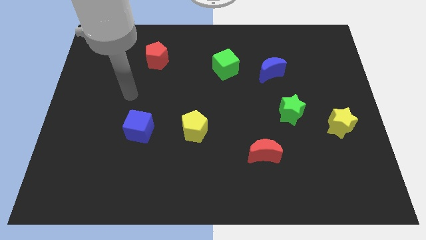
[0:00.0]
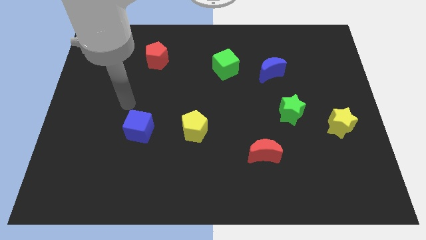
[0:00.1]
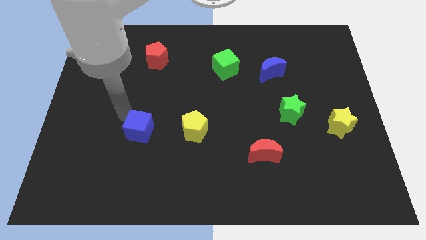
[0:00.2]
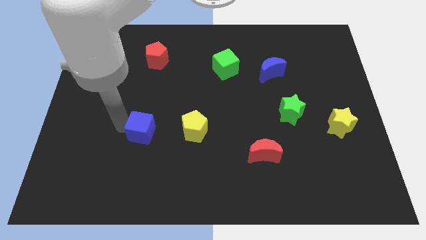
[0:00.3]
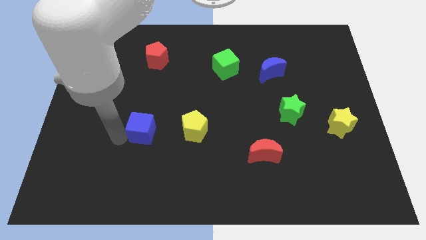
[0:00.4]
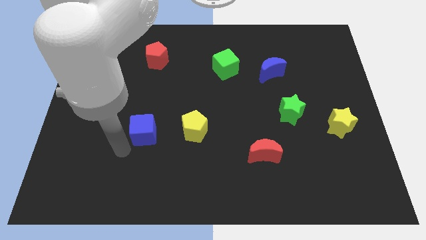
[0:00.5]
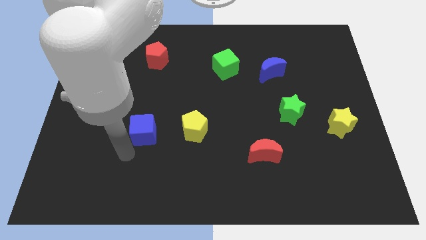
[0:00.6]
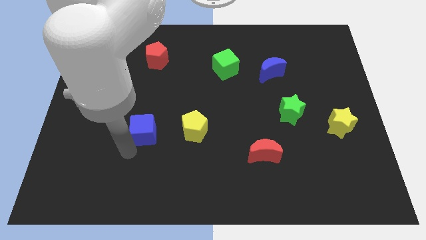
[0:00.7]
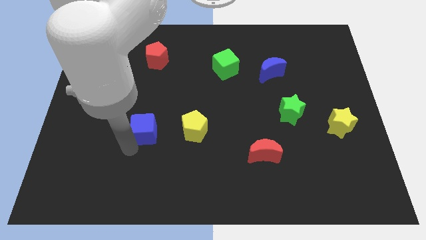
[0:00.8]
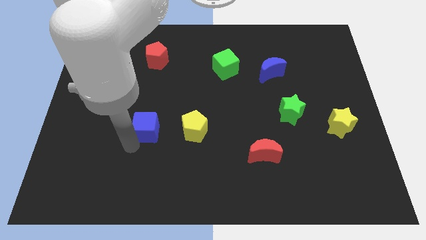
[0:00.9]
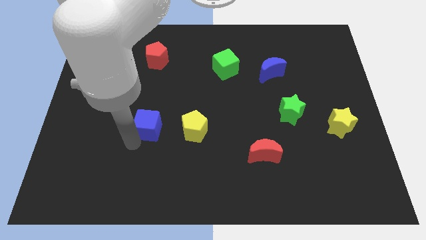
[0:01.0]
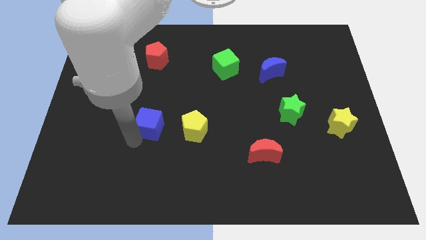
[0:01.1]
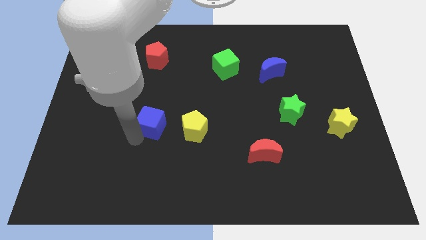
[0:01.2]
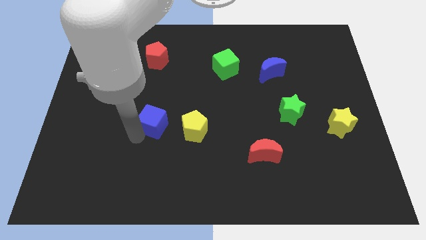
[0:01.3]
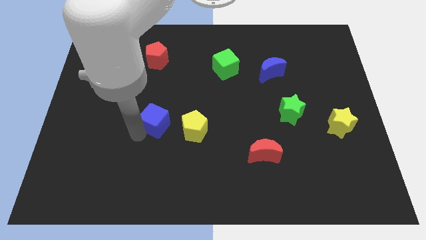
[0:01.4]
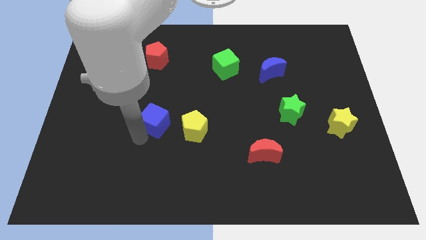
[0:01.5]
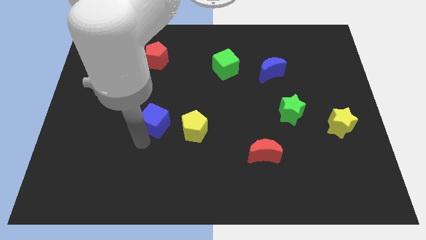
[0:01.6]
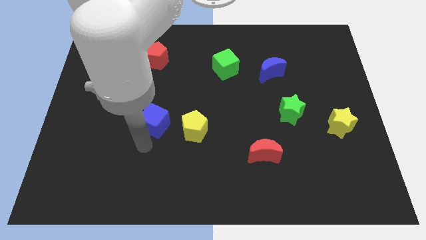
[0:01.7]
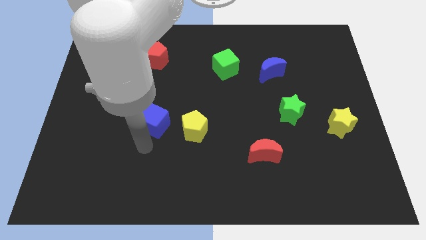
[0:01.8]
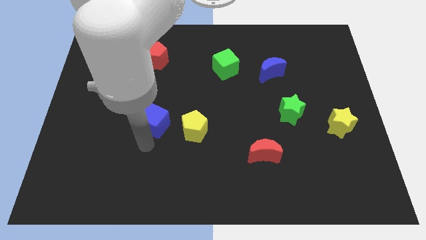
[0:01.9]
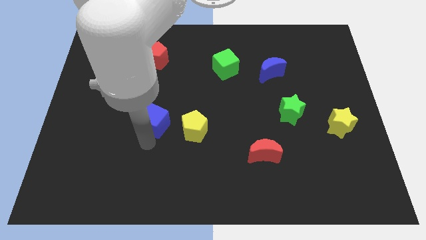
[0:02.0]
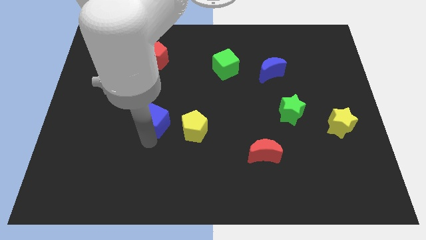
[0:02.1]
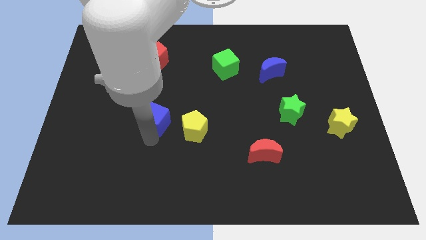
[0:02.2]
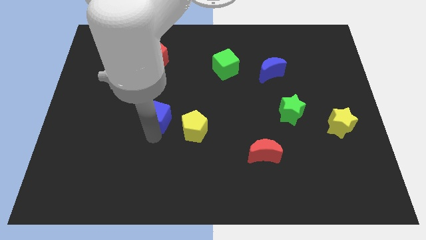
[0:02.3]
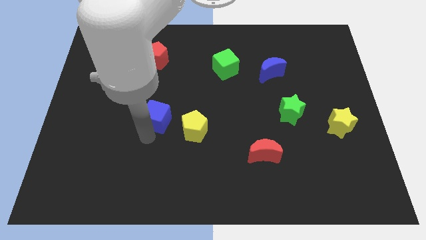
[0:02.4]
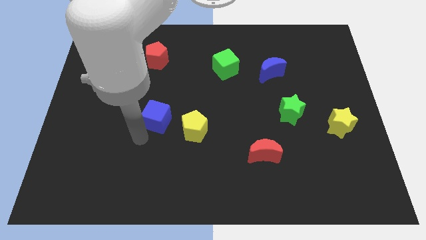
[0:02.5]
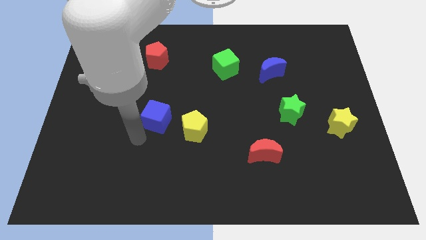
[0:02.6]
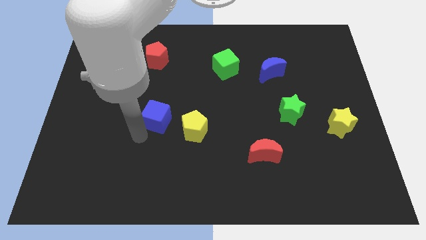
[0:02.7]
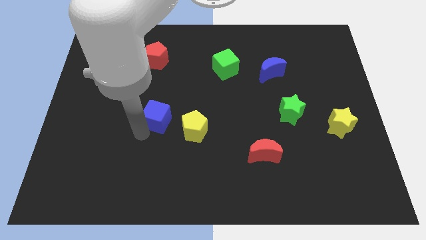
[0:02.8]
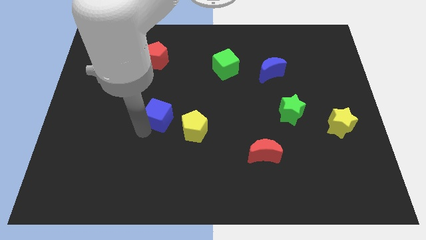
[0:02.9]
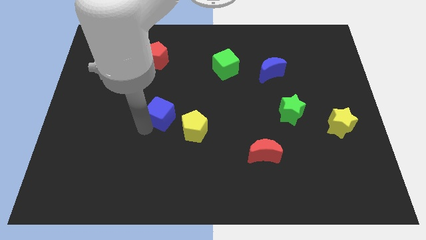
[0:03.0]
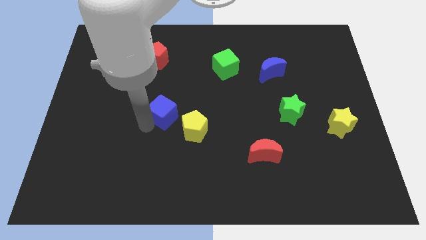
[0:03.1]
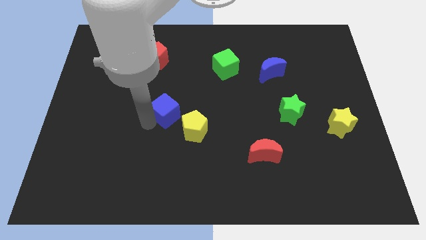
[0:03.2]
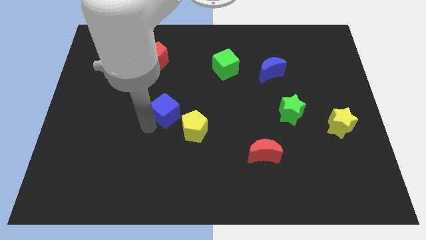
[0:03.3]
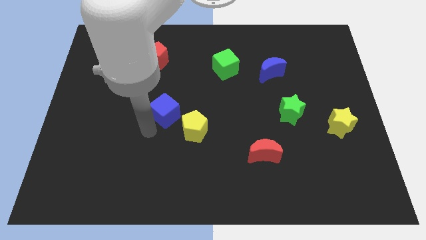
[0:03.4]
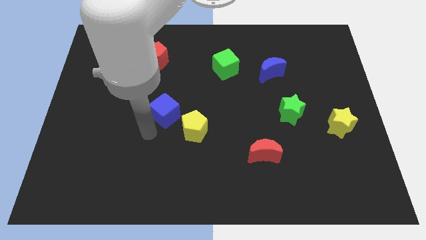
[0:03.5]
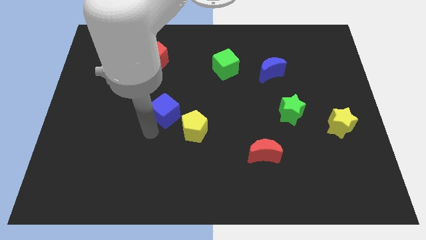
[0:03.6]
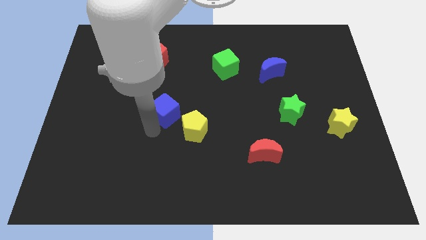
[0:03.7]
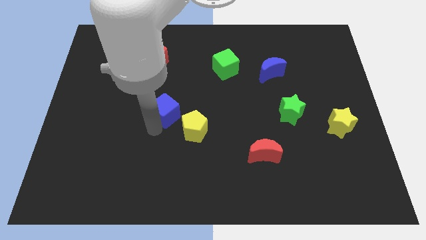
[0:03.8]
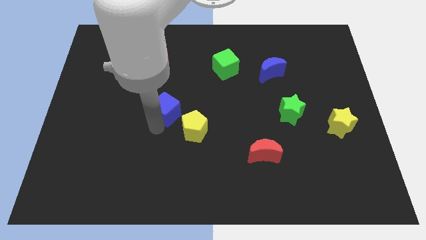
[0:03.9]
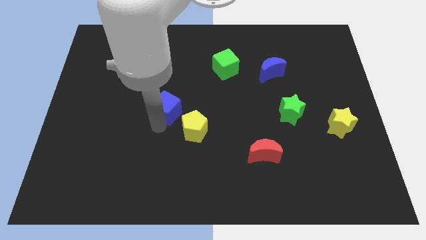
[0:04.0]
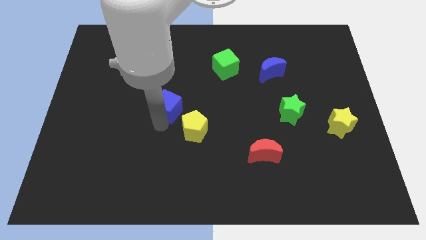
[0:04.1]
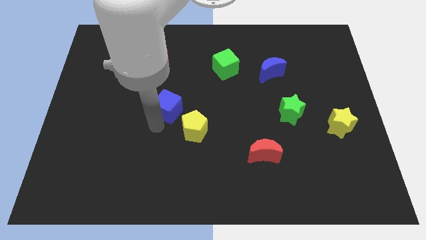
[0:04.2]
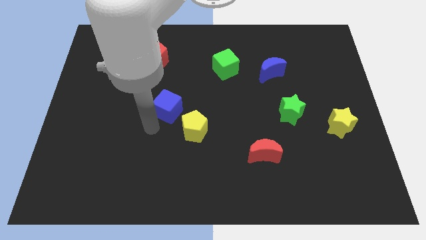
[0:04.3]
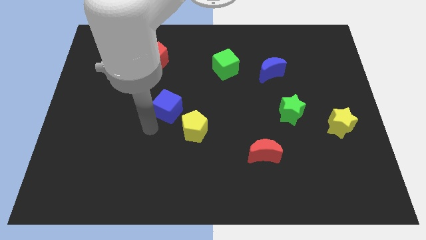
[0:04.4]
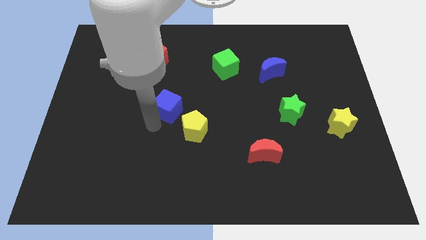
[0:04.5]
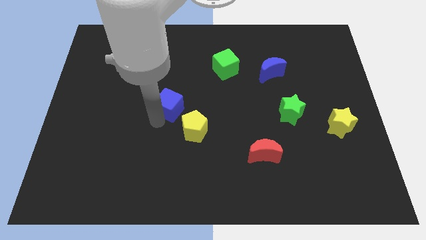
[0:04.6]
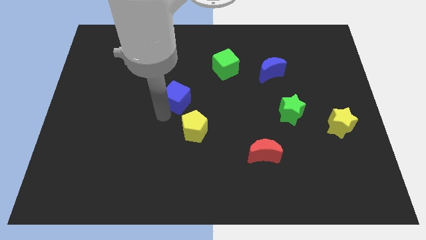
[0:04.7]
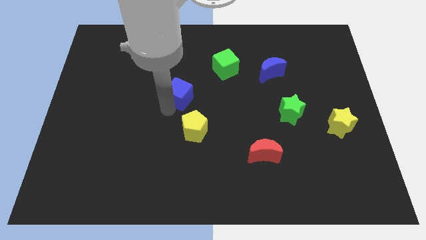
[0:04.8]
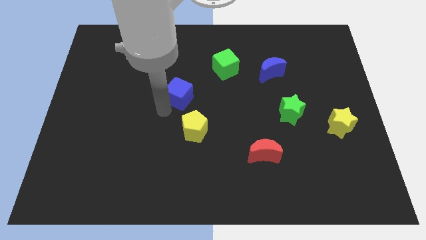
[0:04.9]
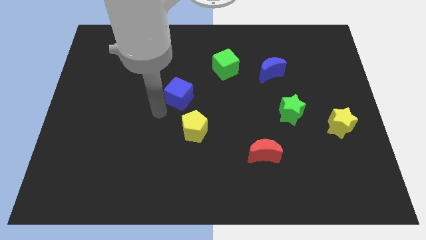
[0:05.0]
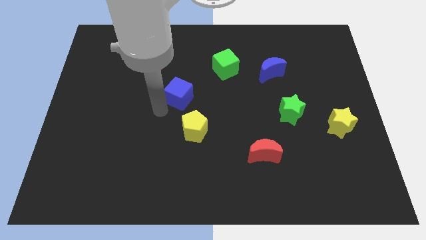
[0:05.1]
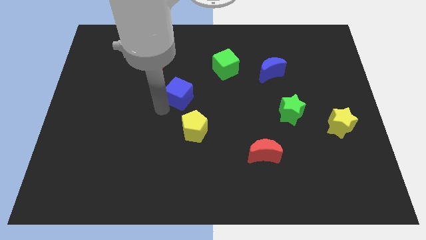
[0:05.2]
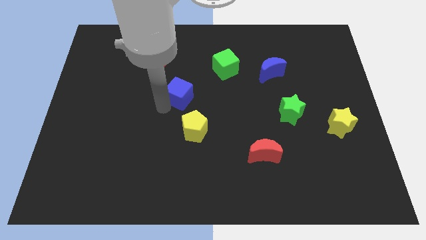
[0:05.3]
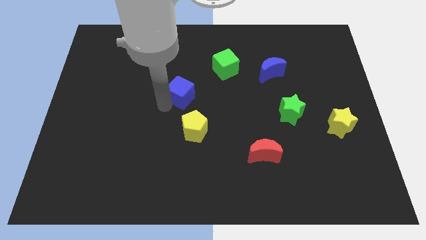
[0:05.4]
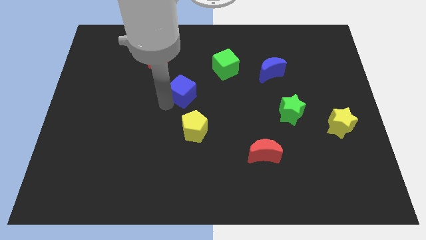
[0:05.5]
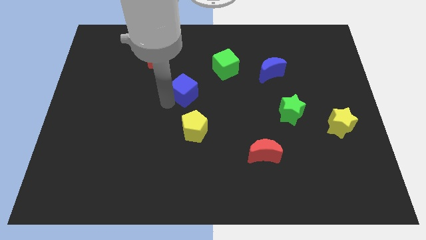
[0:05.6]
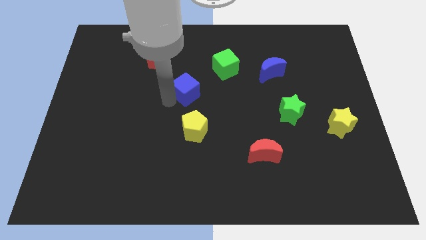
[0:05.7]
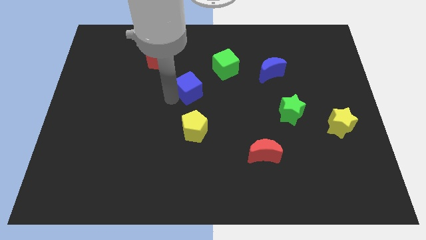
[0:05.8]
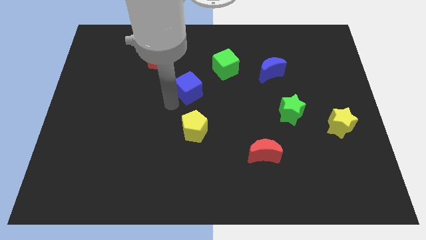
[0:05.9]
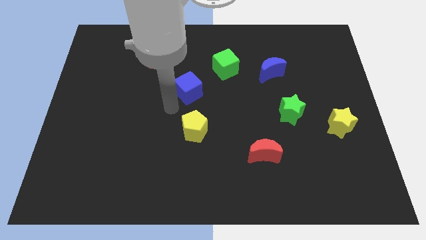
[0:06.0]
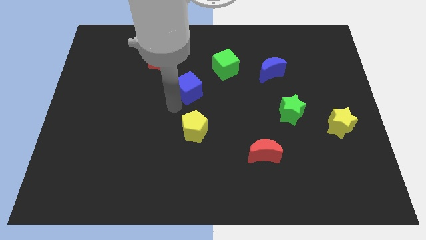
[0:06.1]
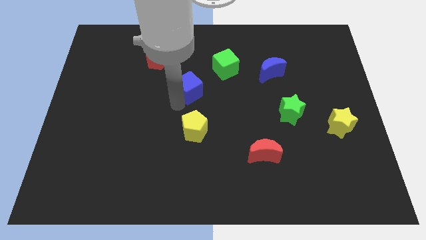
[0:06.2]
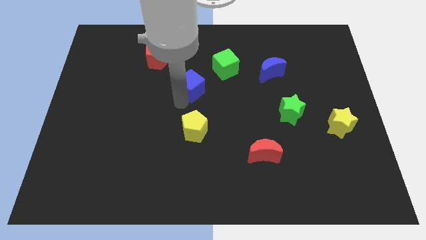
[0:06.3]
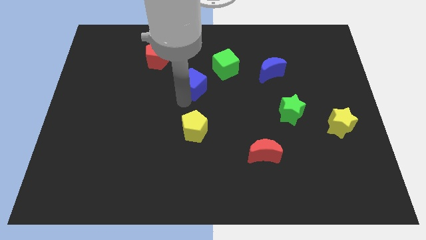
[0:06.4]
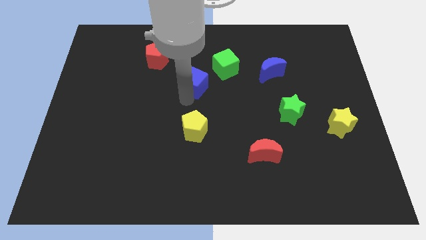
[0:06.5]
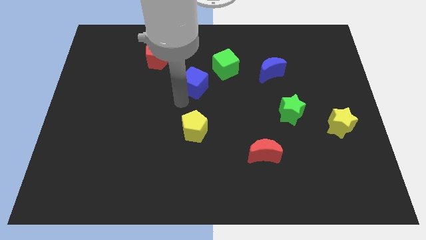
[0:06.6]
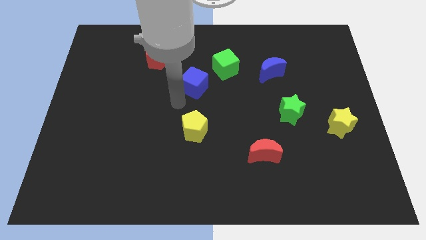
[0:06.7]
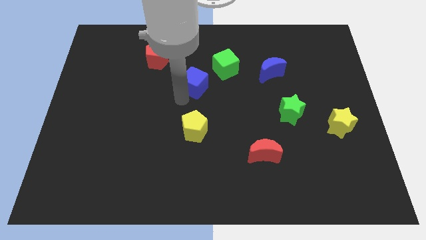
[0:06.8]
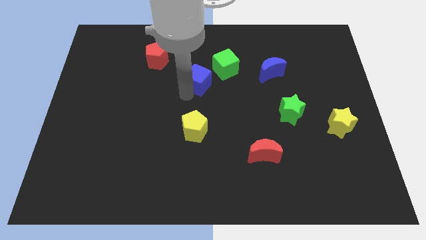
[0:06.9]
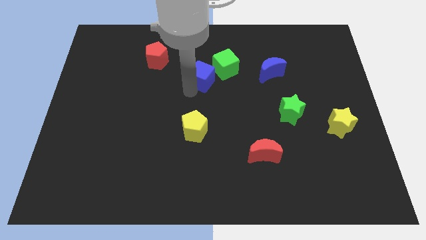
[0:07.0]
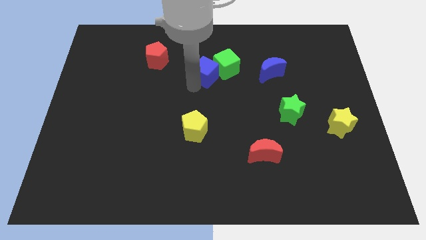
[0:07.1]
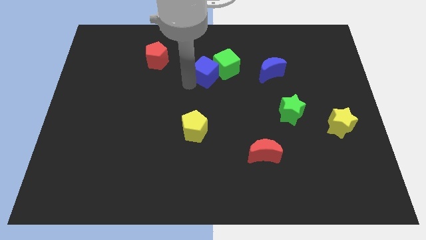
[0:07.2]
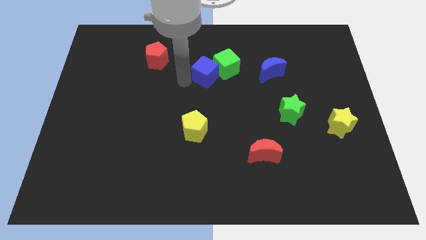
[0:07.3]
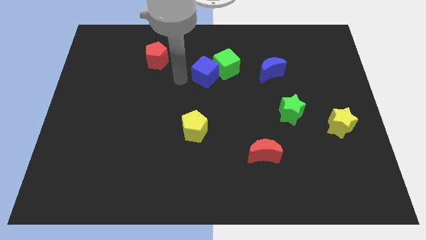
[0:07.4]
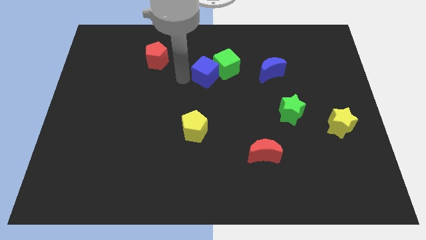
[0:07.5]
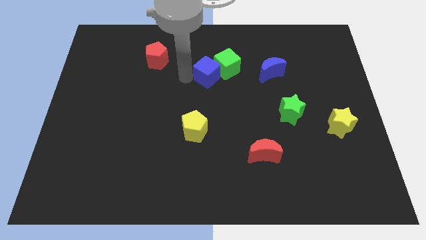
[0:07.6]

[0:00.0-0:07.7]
push the blue cube to the left side of the blue moon
